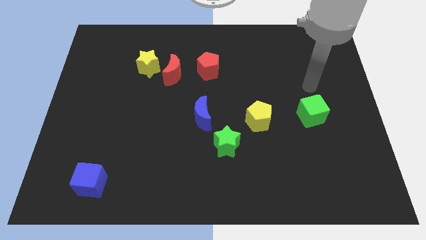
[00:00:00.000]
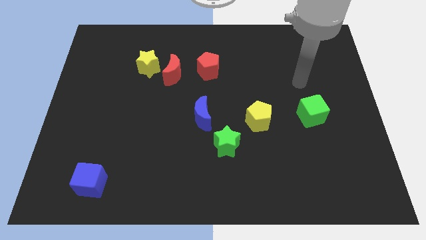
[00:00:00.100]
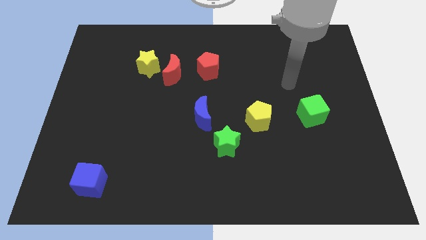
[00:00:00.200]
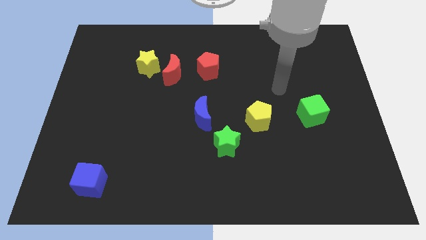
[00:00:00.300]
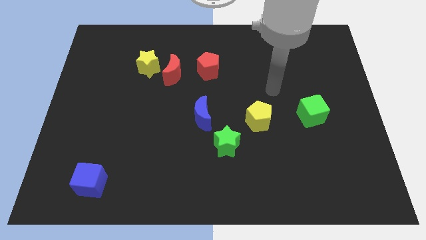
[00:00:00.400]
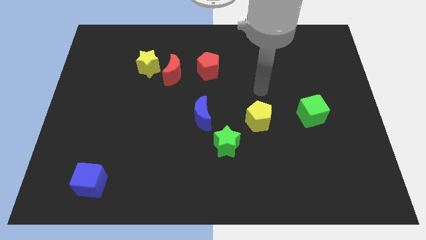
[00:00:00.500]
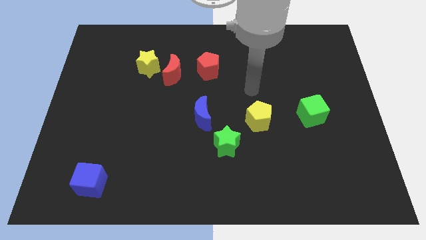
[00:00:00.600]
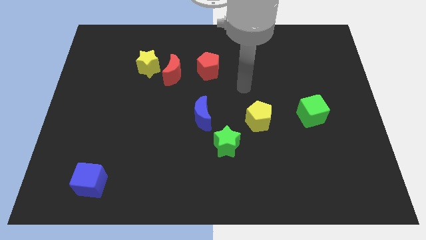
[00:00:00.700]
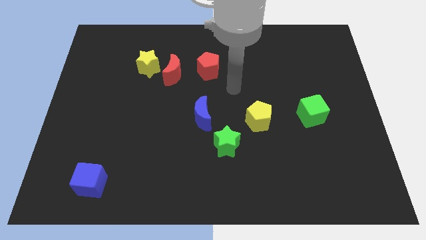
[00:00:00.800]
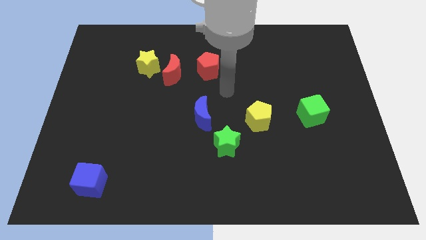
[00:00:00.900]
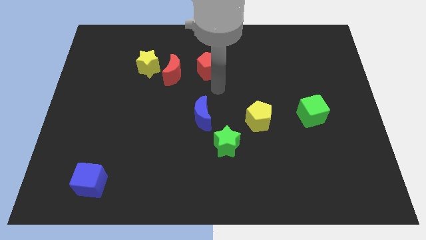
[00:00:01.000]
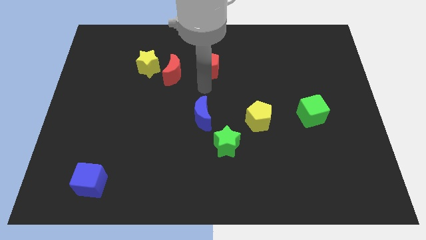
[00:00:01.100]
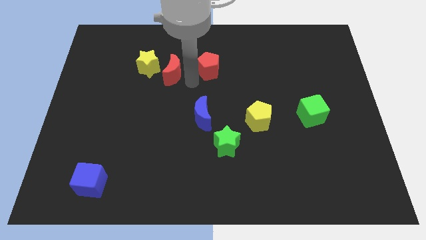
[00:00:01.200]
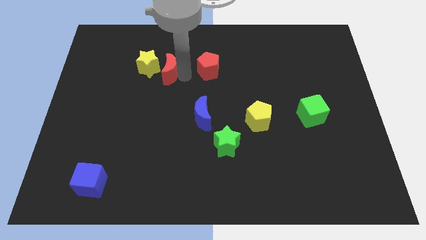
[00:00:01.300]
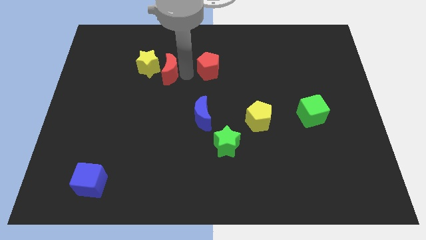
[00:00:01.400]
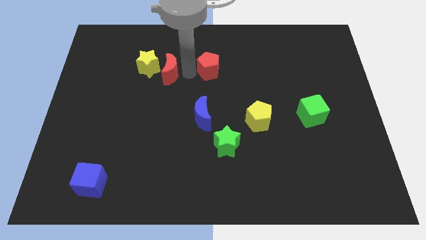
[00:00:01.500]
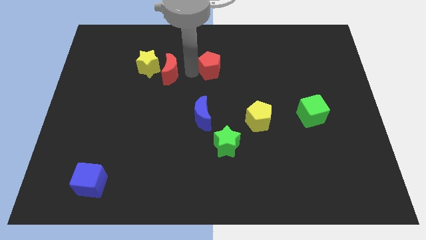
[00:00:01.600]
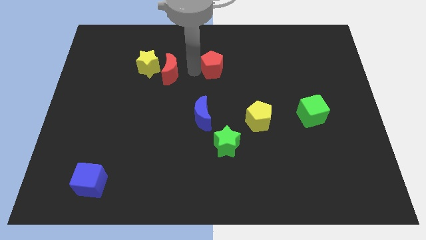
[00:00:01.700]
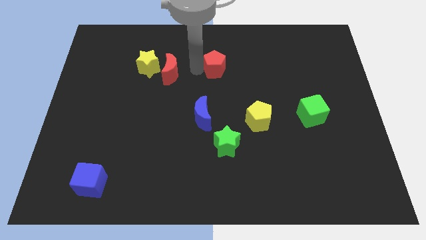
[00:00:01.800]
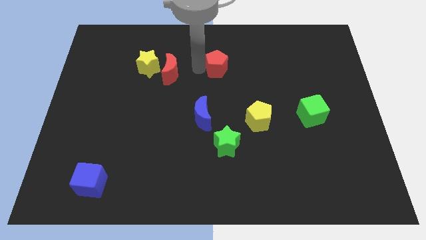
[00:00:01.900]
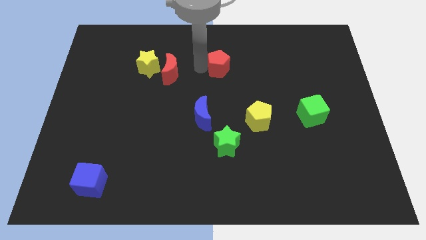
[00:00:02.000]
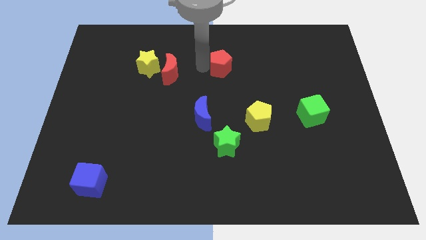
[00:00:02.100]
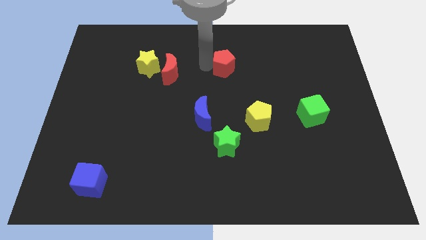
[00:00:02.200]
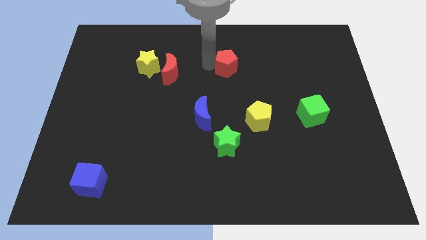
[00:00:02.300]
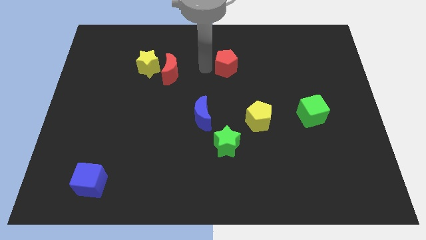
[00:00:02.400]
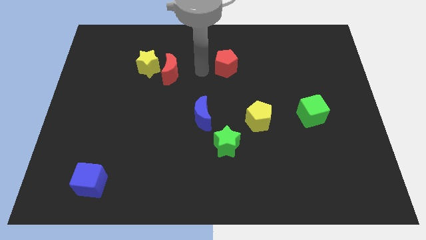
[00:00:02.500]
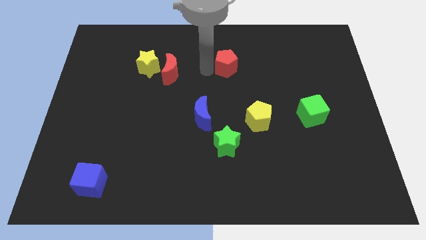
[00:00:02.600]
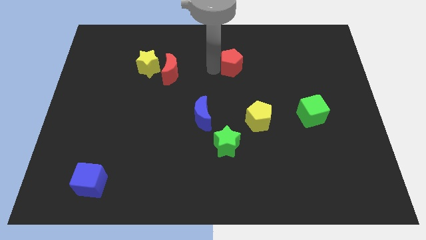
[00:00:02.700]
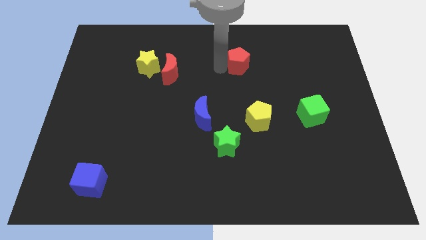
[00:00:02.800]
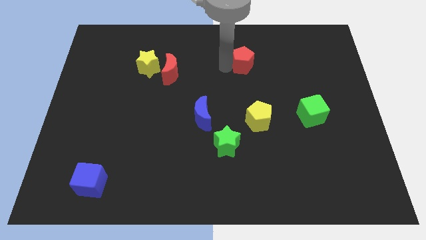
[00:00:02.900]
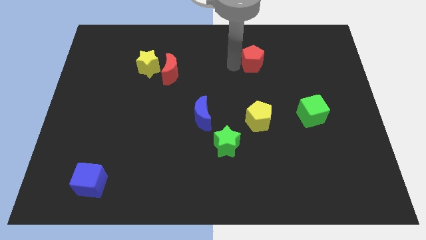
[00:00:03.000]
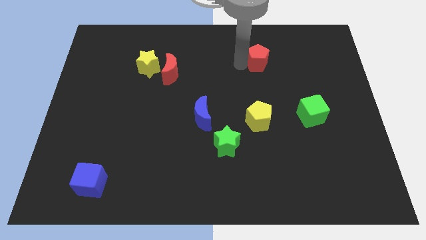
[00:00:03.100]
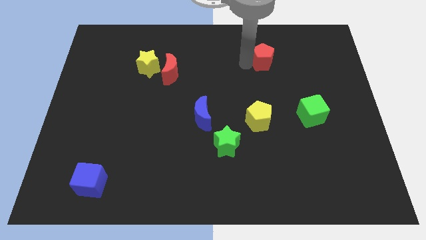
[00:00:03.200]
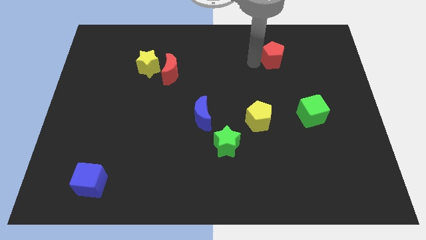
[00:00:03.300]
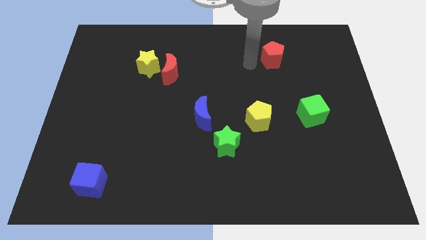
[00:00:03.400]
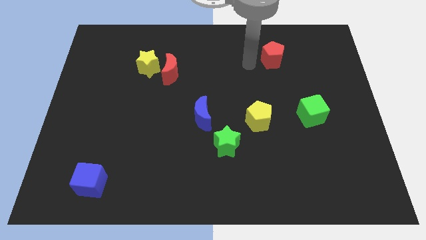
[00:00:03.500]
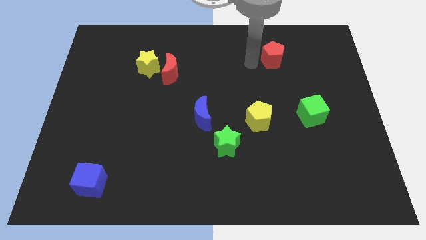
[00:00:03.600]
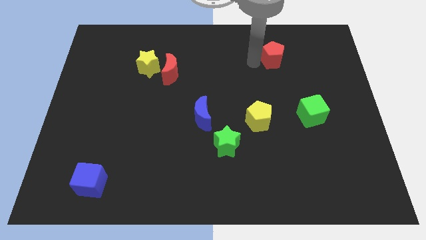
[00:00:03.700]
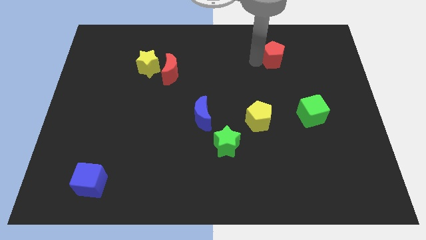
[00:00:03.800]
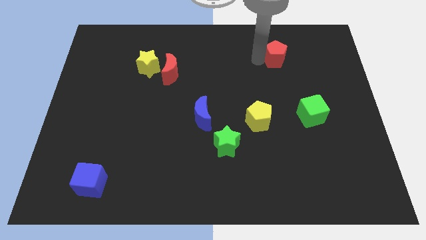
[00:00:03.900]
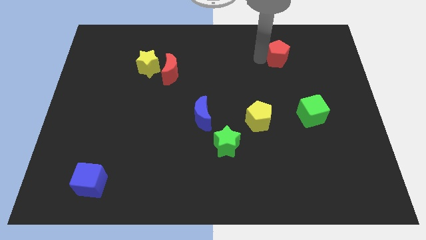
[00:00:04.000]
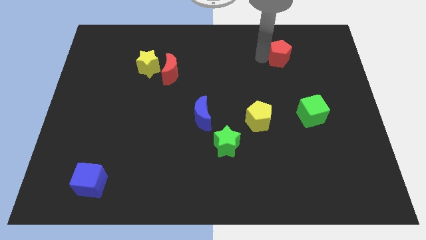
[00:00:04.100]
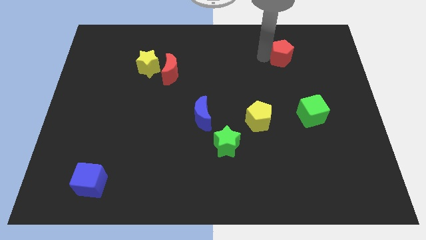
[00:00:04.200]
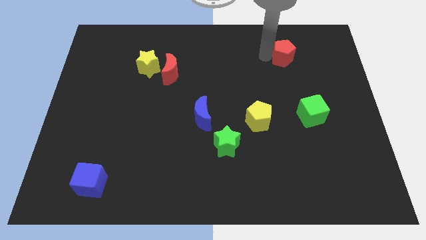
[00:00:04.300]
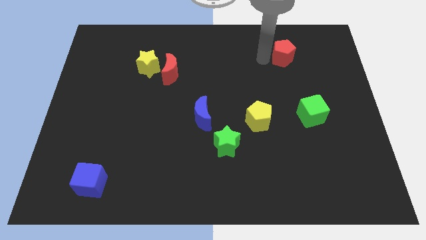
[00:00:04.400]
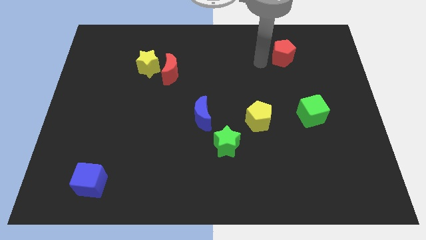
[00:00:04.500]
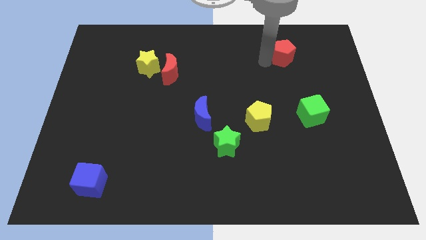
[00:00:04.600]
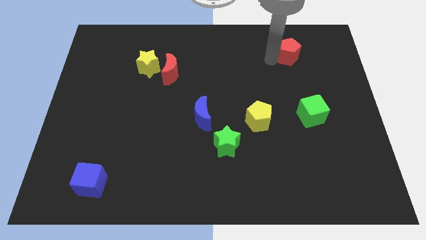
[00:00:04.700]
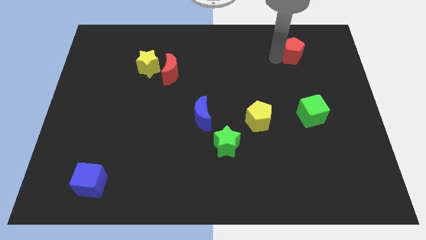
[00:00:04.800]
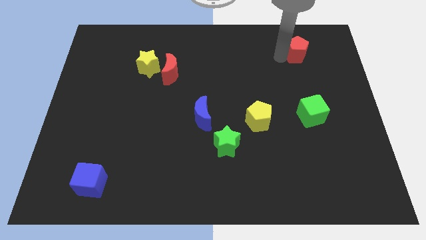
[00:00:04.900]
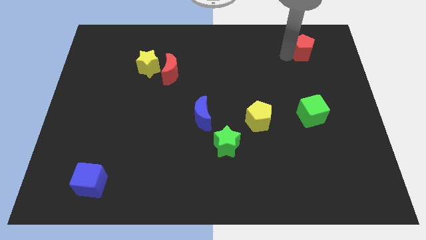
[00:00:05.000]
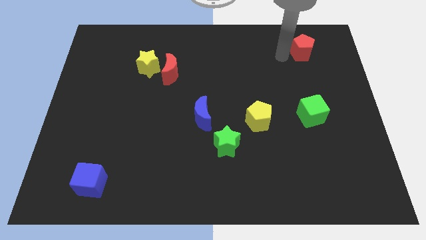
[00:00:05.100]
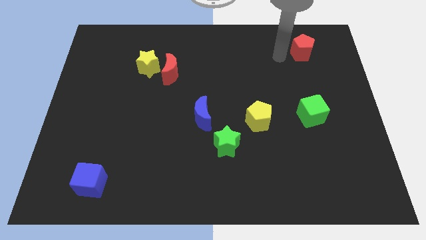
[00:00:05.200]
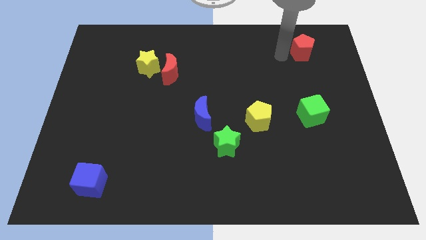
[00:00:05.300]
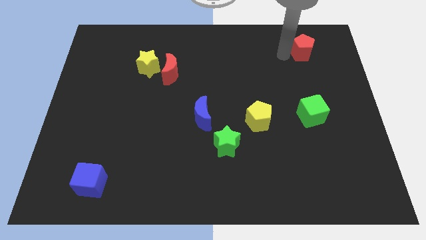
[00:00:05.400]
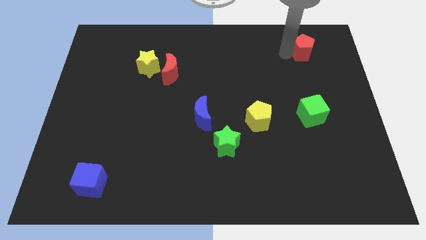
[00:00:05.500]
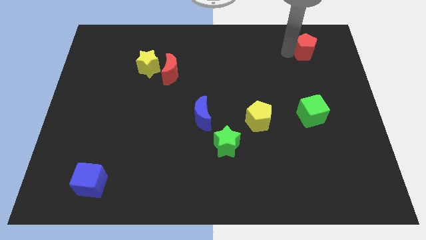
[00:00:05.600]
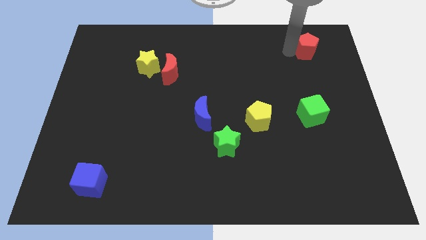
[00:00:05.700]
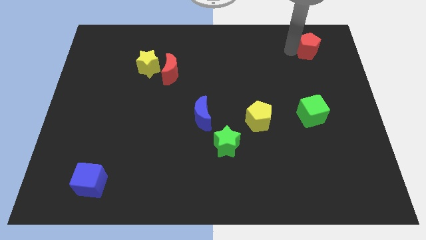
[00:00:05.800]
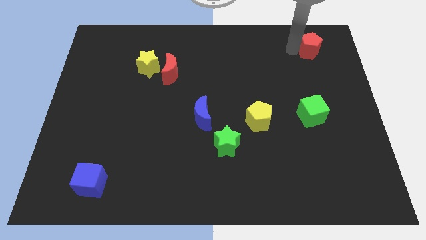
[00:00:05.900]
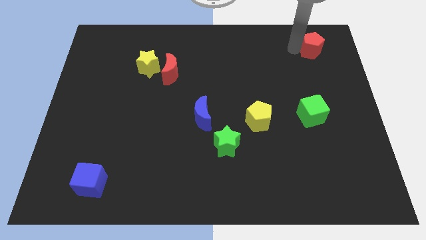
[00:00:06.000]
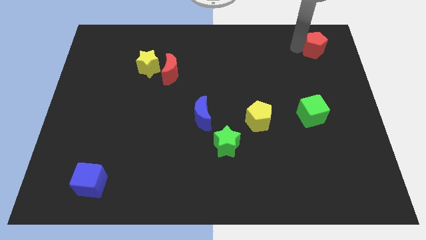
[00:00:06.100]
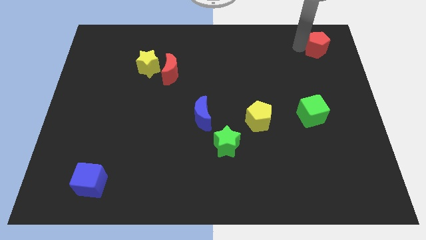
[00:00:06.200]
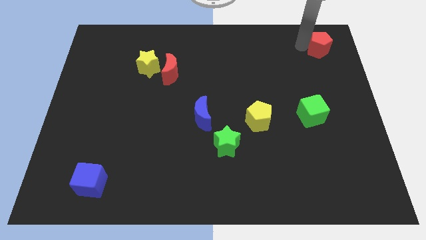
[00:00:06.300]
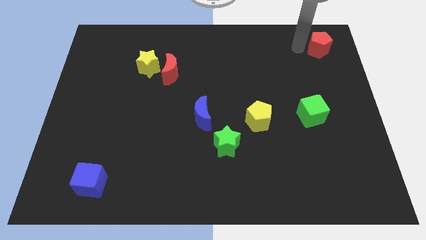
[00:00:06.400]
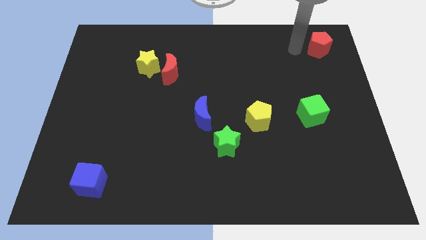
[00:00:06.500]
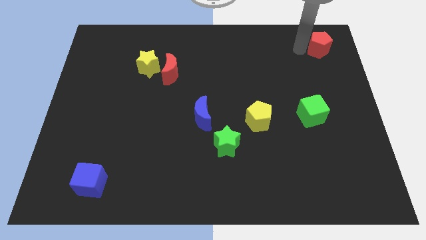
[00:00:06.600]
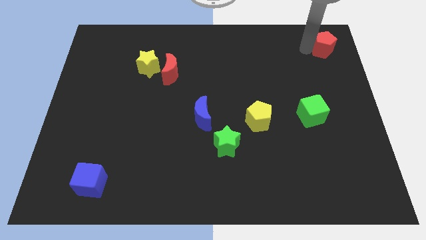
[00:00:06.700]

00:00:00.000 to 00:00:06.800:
slide the red pentagon to the upper right corner

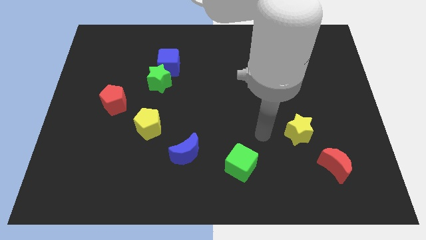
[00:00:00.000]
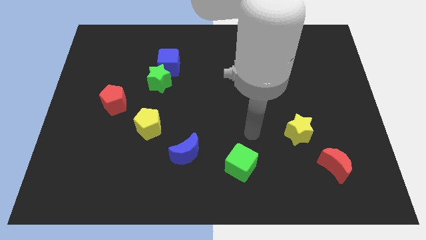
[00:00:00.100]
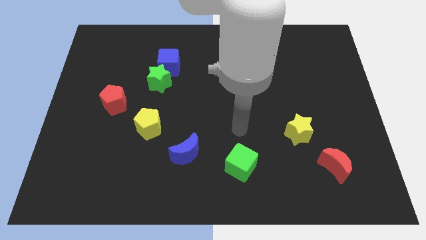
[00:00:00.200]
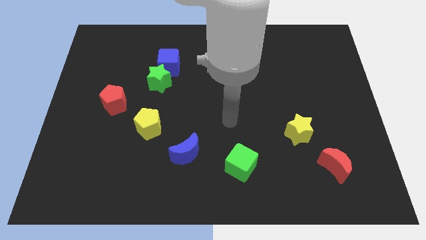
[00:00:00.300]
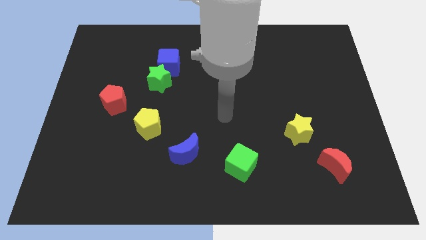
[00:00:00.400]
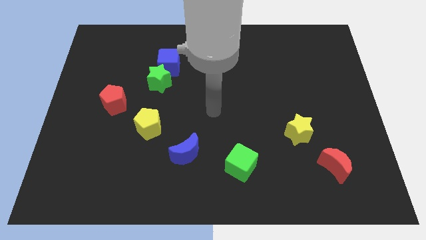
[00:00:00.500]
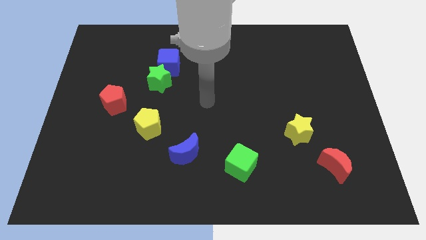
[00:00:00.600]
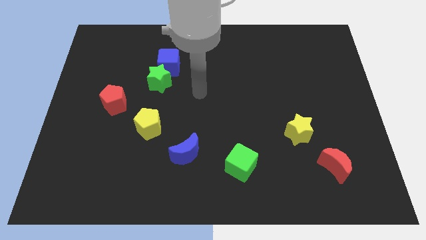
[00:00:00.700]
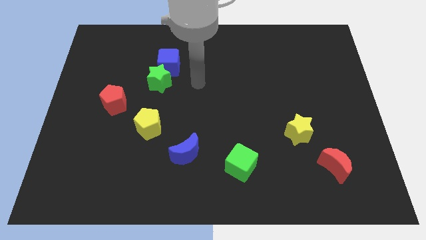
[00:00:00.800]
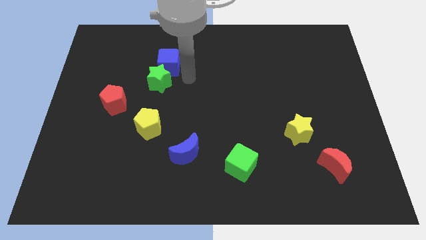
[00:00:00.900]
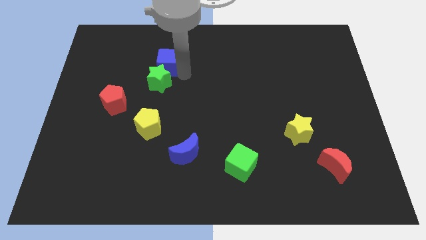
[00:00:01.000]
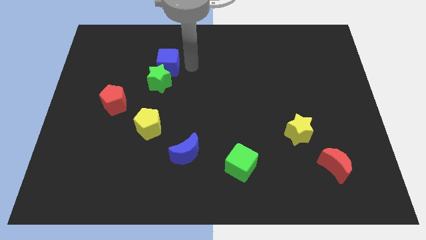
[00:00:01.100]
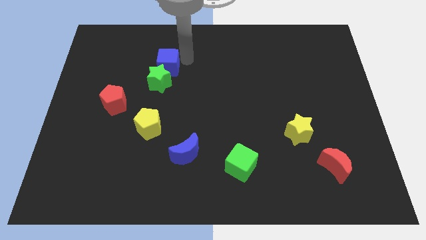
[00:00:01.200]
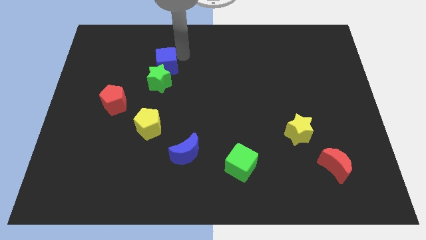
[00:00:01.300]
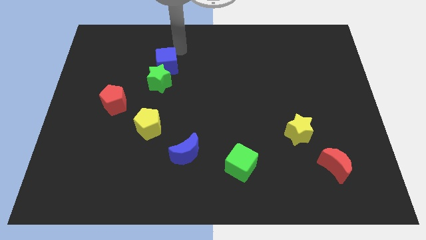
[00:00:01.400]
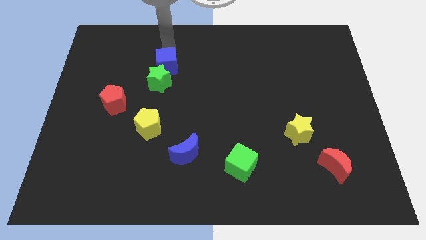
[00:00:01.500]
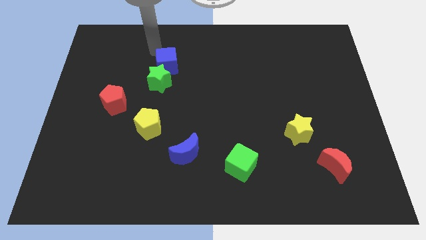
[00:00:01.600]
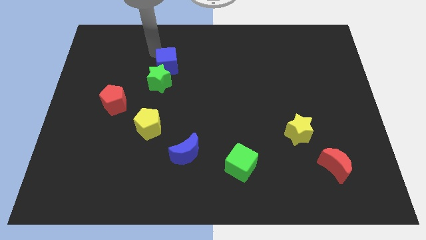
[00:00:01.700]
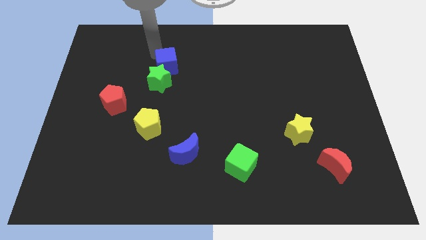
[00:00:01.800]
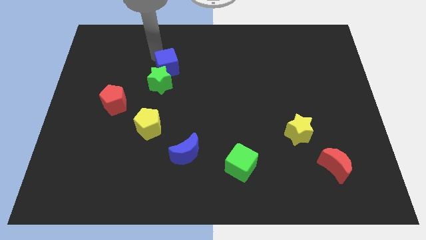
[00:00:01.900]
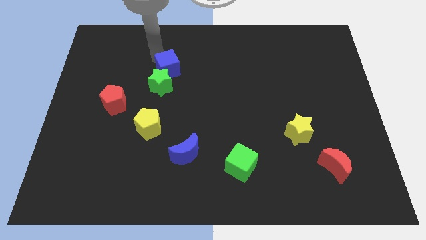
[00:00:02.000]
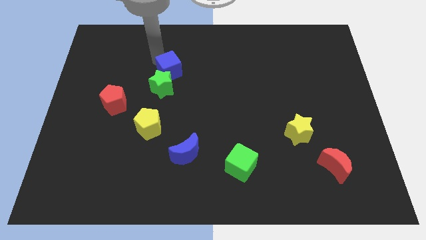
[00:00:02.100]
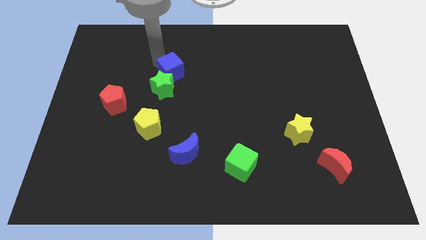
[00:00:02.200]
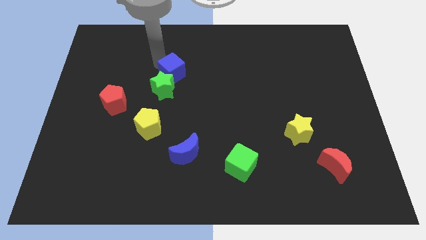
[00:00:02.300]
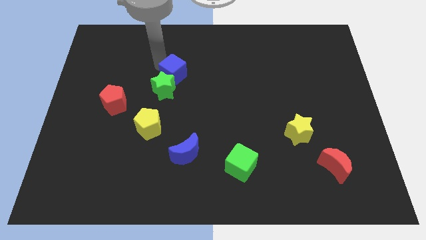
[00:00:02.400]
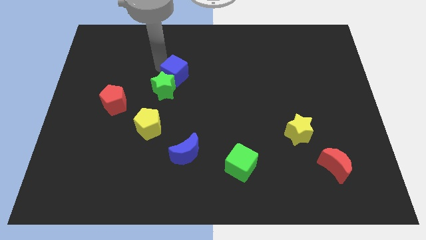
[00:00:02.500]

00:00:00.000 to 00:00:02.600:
put the blue cube to the middle
